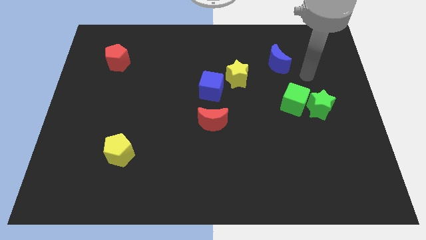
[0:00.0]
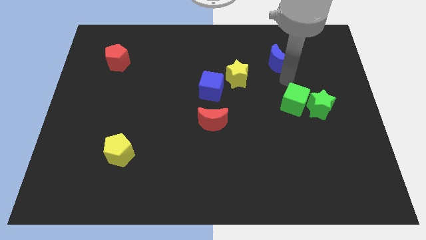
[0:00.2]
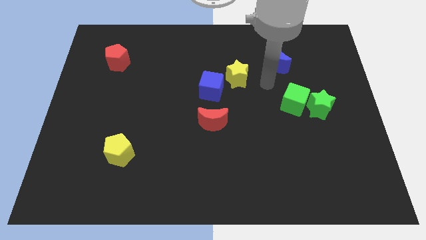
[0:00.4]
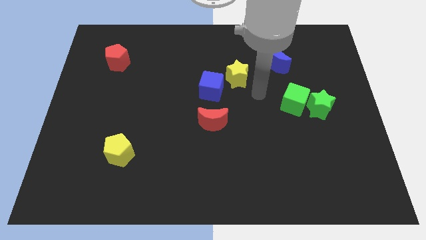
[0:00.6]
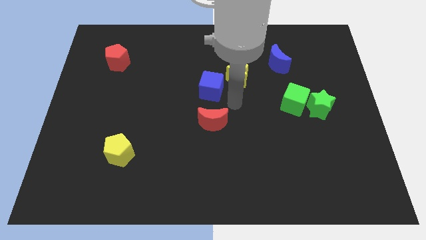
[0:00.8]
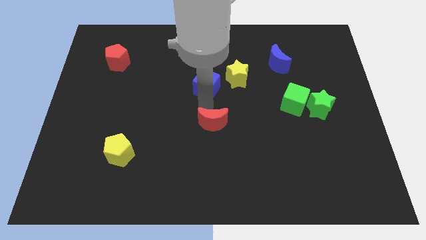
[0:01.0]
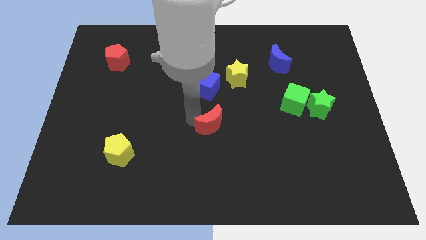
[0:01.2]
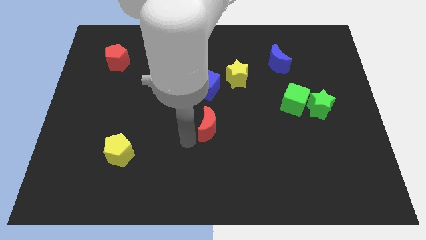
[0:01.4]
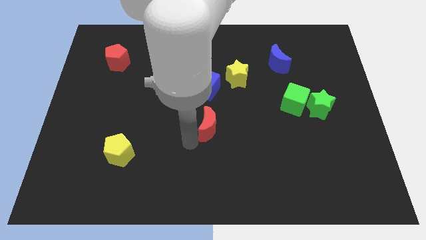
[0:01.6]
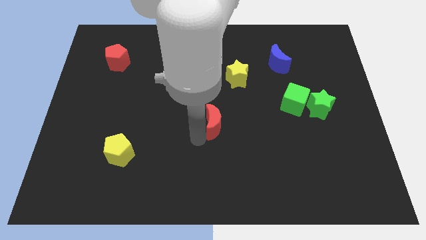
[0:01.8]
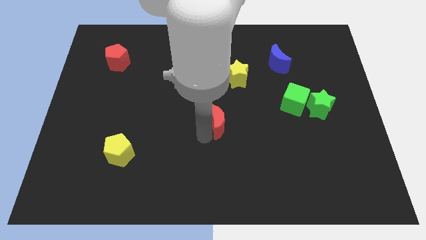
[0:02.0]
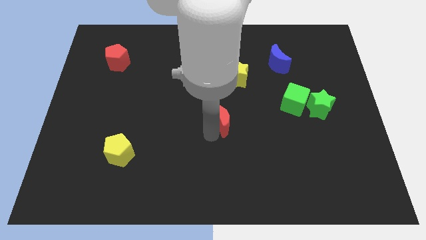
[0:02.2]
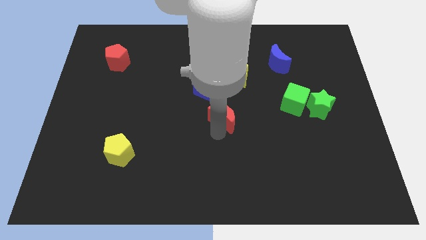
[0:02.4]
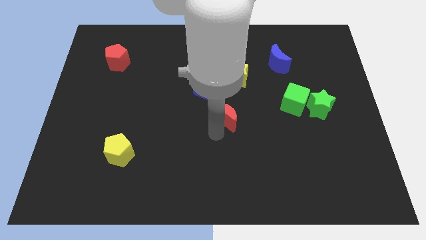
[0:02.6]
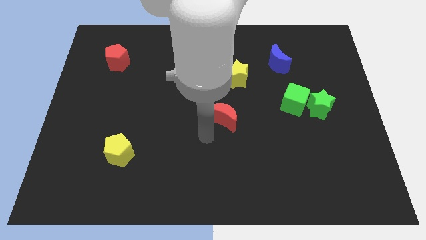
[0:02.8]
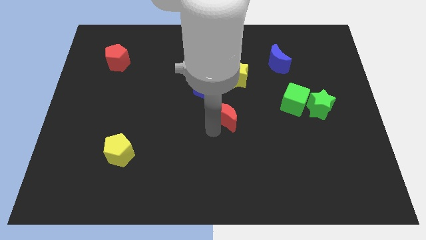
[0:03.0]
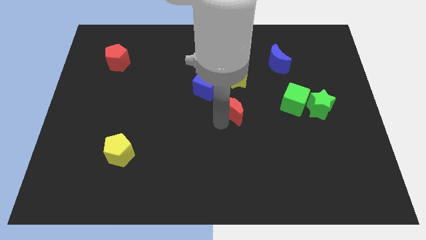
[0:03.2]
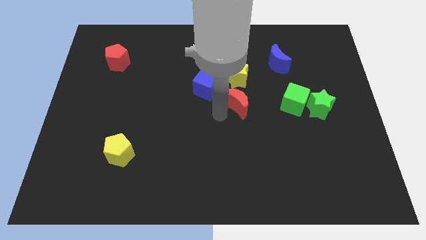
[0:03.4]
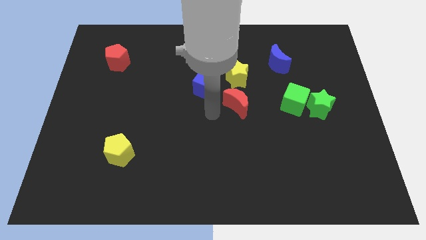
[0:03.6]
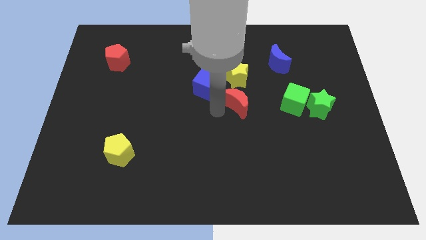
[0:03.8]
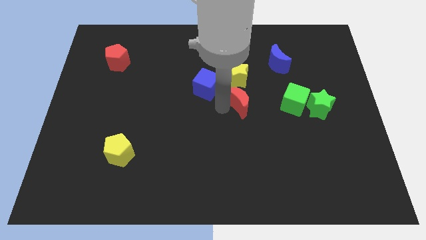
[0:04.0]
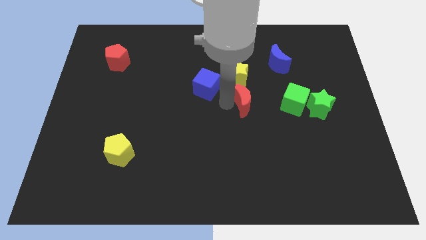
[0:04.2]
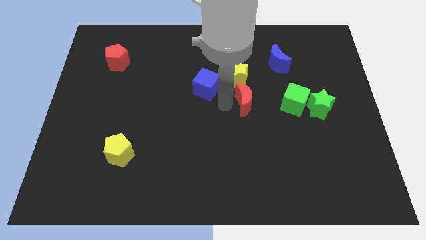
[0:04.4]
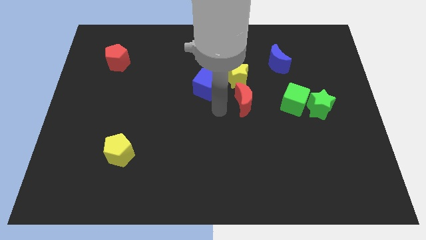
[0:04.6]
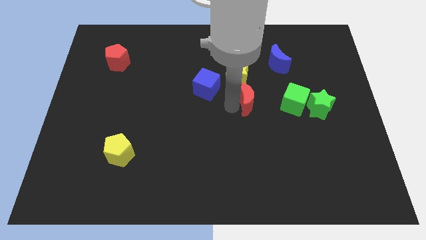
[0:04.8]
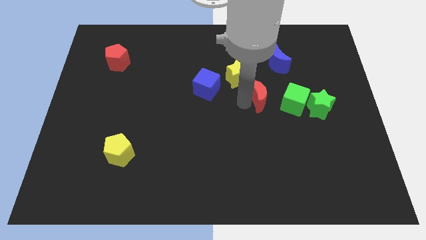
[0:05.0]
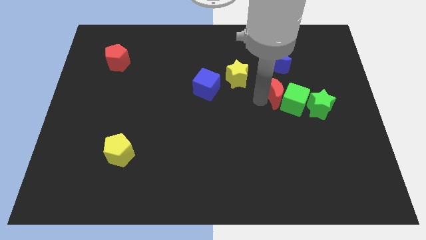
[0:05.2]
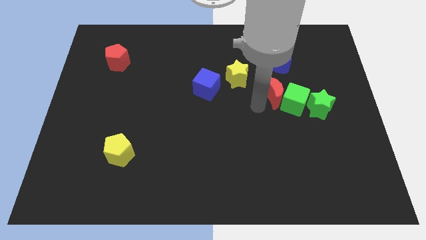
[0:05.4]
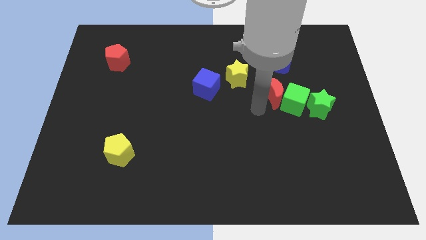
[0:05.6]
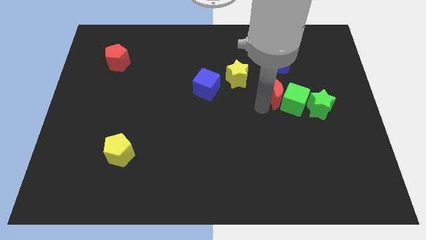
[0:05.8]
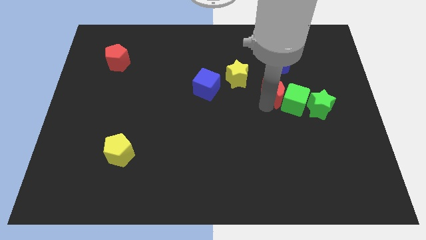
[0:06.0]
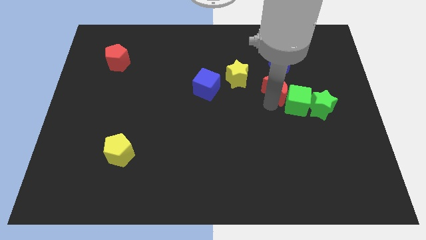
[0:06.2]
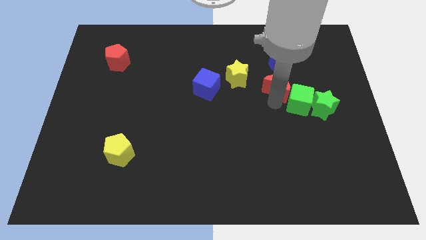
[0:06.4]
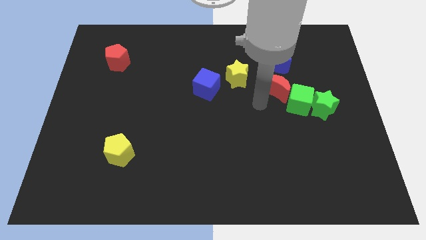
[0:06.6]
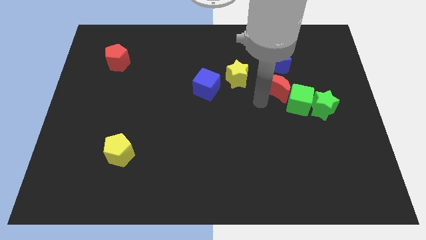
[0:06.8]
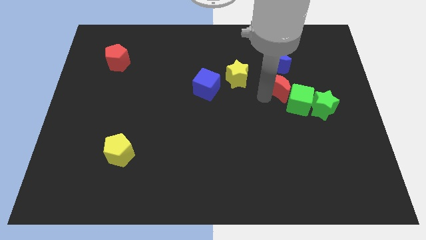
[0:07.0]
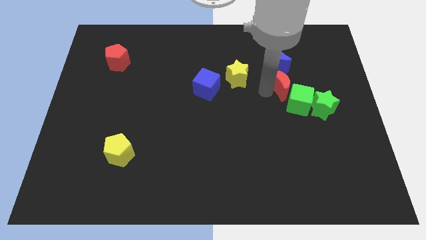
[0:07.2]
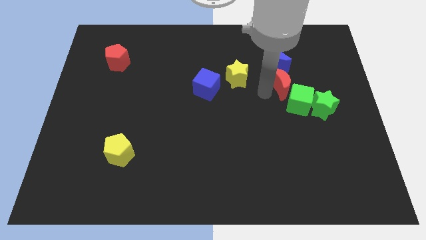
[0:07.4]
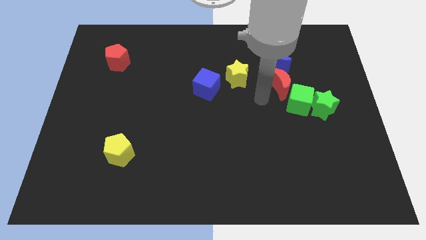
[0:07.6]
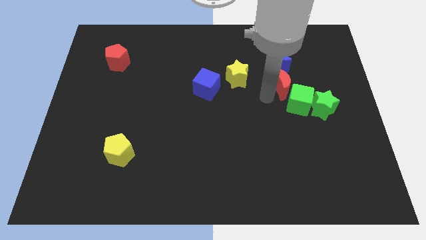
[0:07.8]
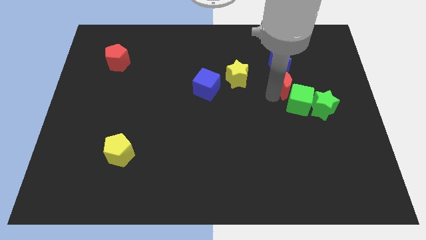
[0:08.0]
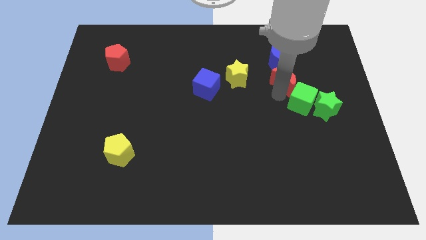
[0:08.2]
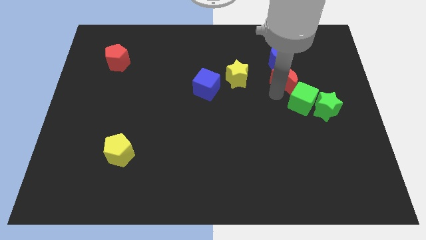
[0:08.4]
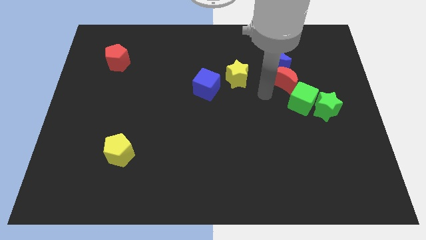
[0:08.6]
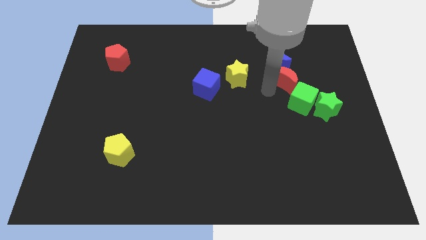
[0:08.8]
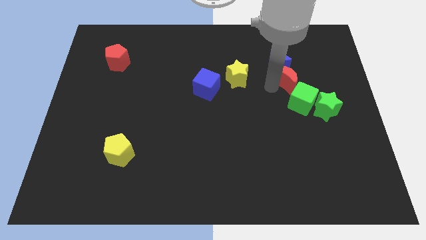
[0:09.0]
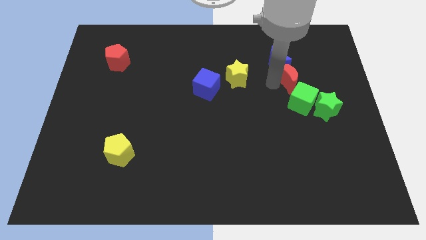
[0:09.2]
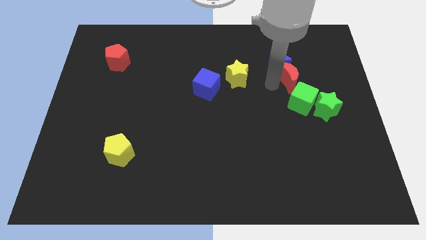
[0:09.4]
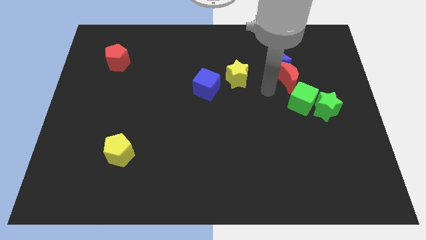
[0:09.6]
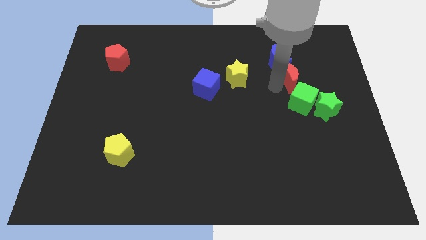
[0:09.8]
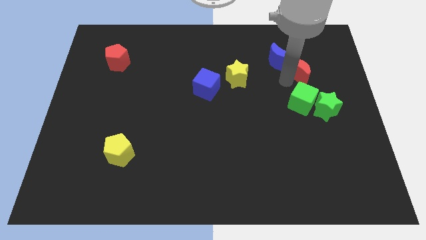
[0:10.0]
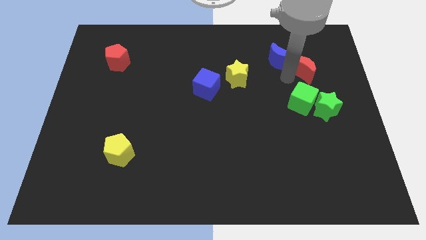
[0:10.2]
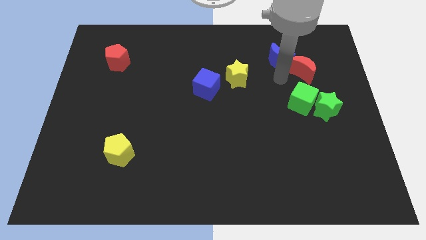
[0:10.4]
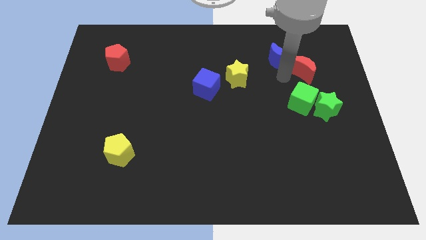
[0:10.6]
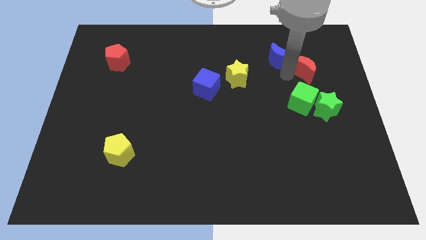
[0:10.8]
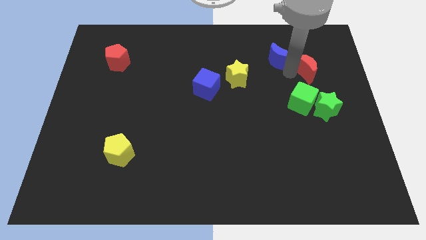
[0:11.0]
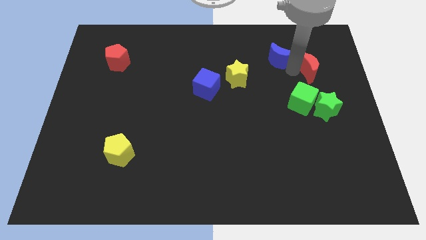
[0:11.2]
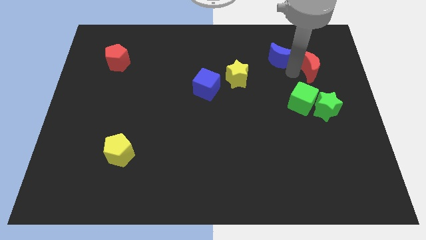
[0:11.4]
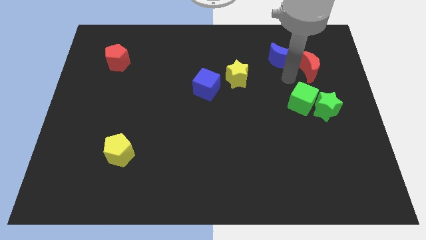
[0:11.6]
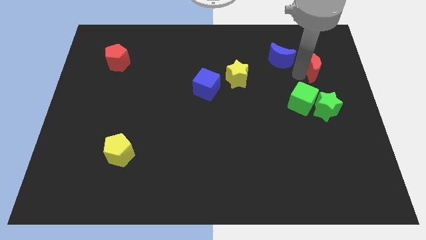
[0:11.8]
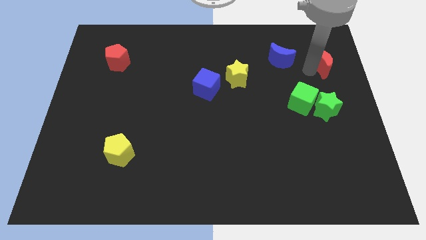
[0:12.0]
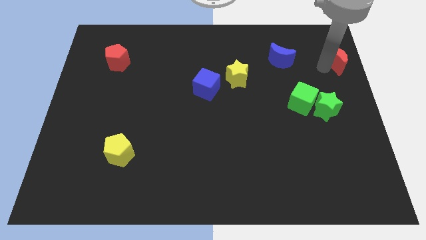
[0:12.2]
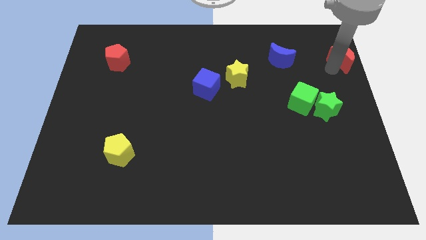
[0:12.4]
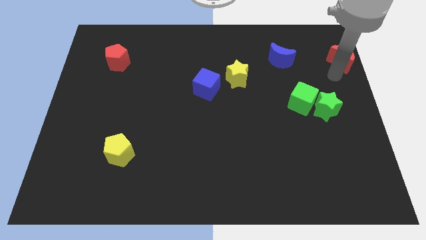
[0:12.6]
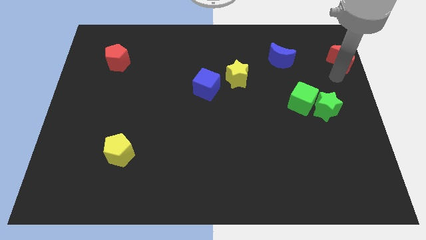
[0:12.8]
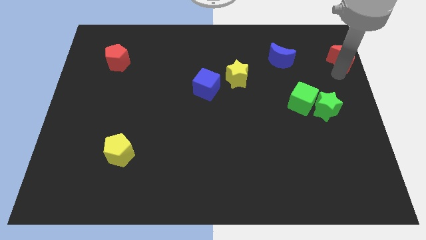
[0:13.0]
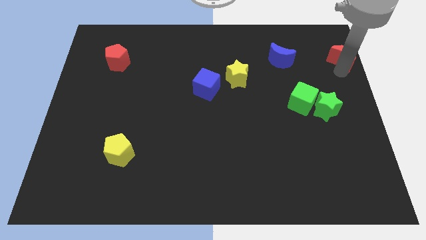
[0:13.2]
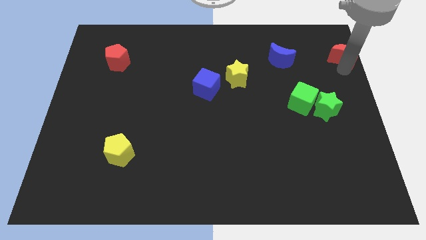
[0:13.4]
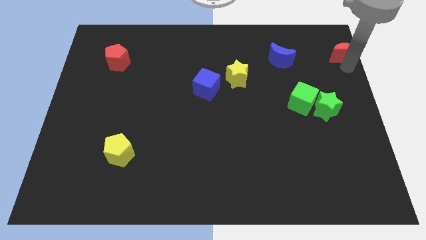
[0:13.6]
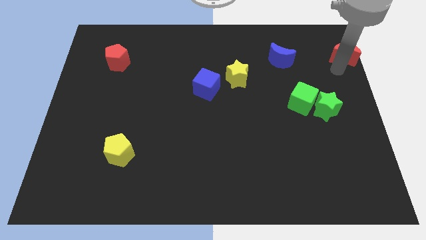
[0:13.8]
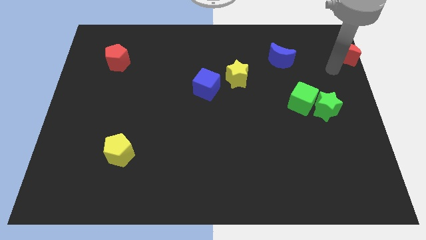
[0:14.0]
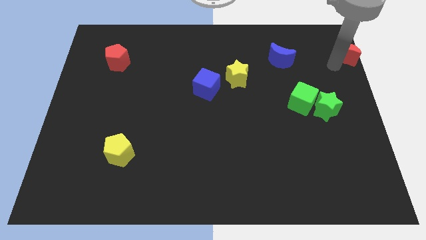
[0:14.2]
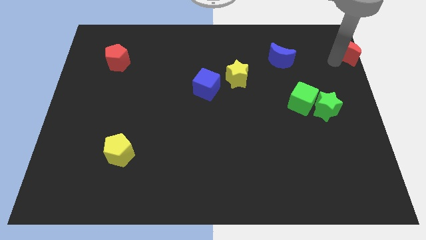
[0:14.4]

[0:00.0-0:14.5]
push the red moon to the top right

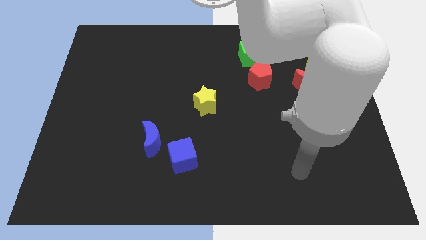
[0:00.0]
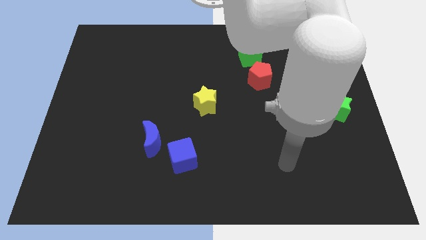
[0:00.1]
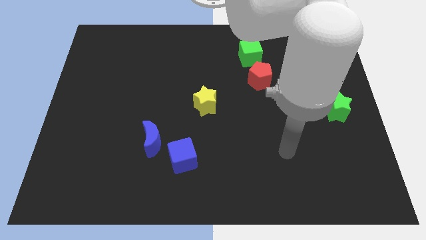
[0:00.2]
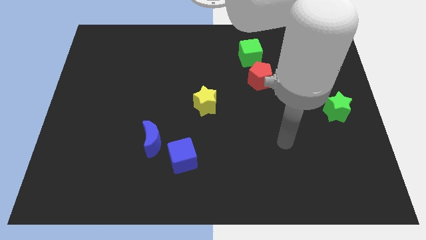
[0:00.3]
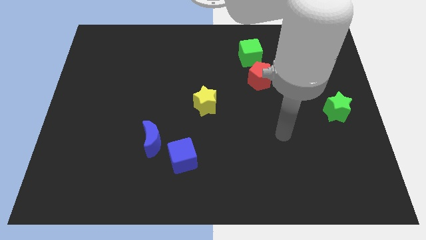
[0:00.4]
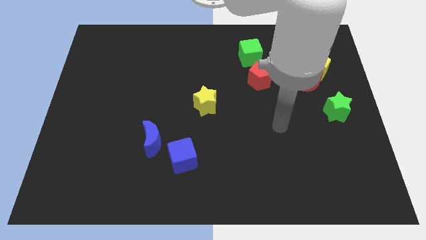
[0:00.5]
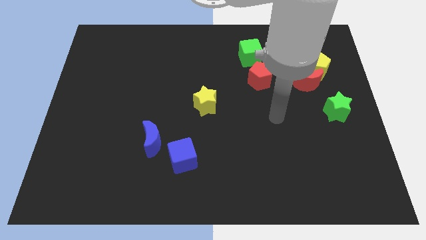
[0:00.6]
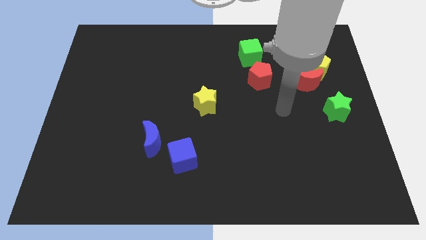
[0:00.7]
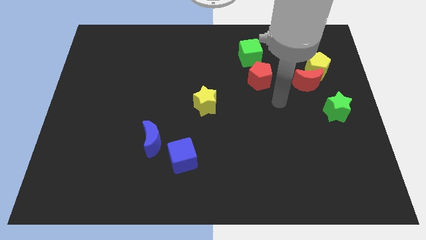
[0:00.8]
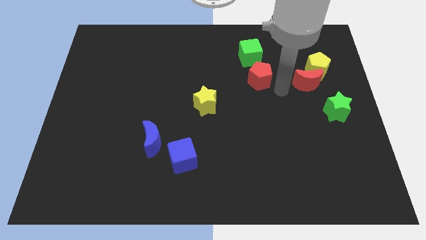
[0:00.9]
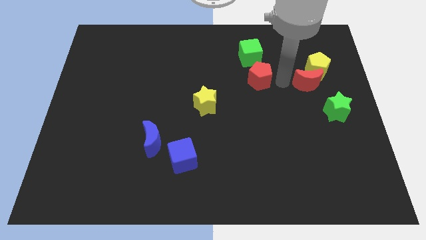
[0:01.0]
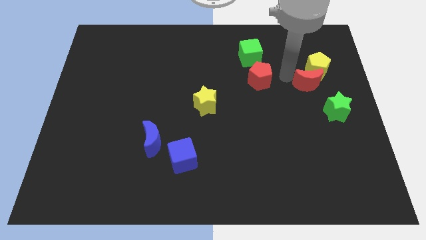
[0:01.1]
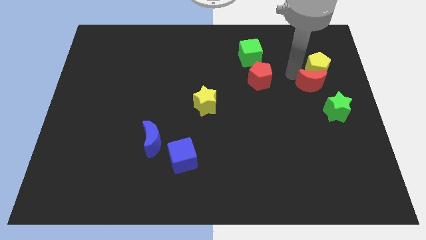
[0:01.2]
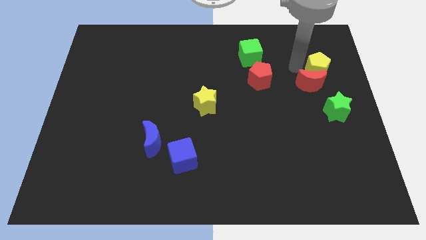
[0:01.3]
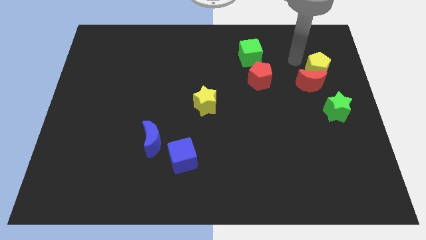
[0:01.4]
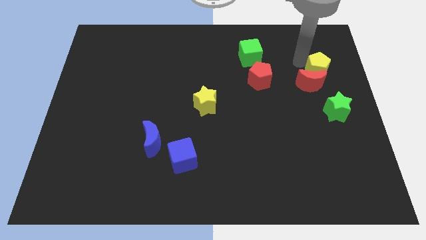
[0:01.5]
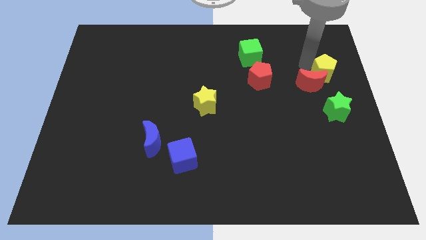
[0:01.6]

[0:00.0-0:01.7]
push the yellow pentagon to the right side of the board
